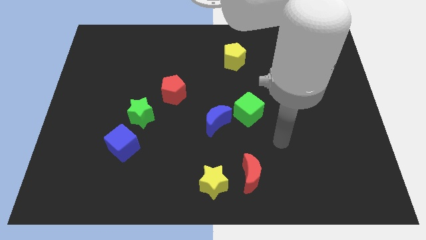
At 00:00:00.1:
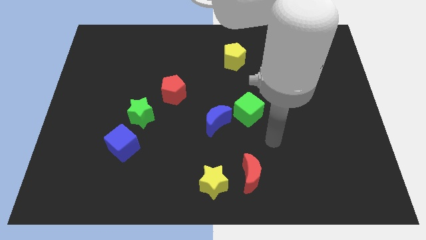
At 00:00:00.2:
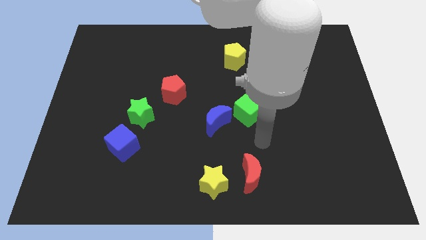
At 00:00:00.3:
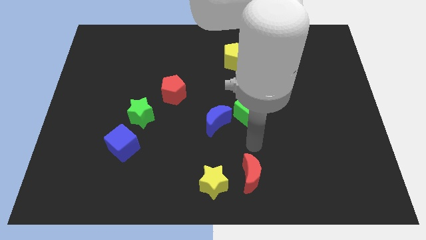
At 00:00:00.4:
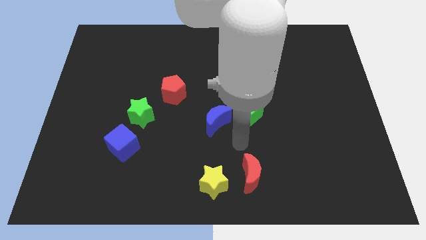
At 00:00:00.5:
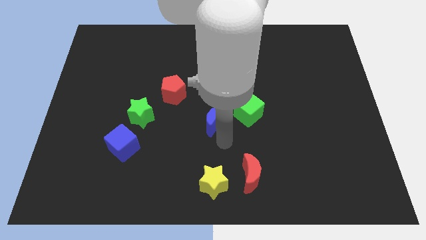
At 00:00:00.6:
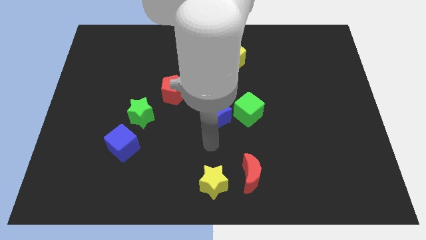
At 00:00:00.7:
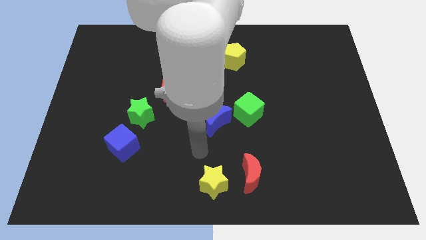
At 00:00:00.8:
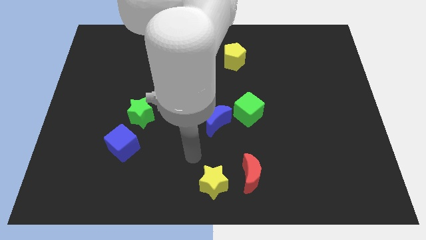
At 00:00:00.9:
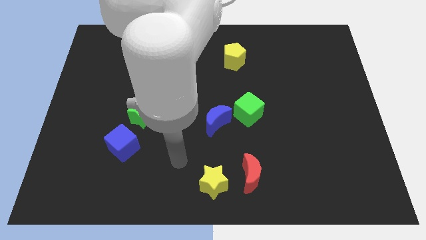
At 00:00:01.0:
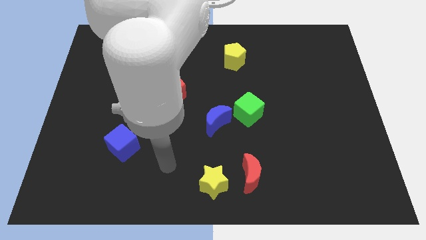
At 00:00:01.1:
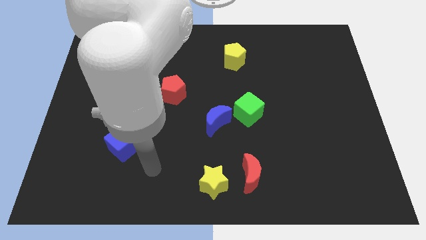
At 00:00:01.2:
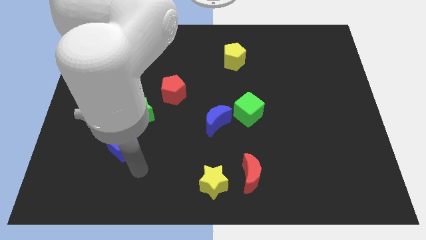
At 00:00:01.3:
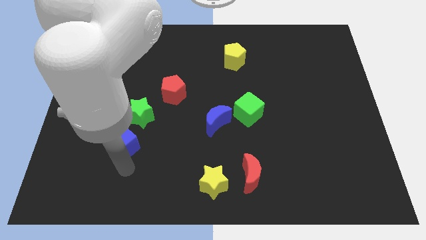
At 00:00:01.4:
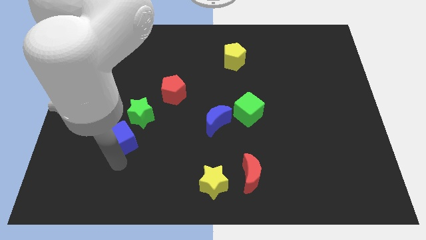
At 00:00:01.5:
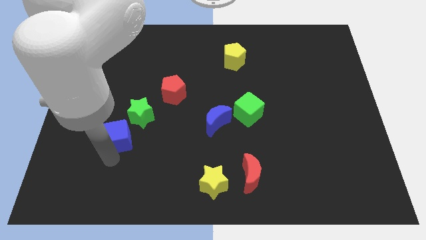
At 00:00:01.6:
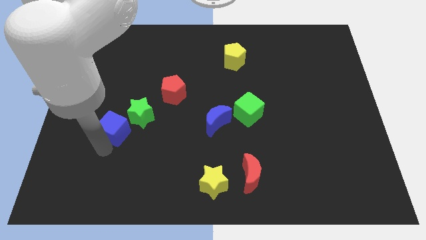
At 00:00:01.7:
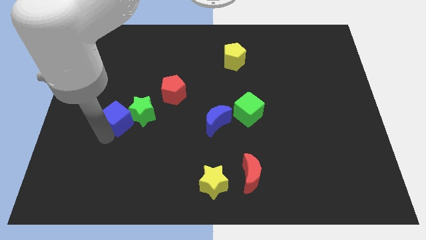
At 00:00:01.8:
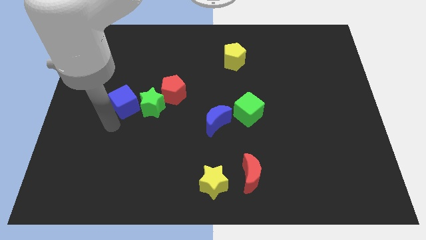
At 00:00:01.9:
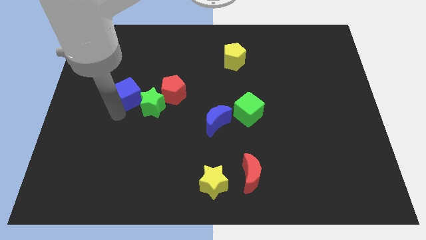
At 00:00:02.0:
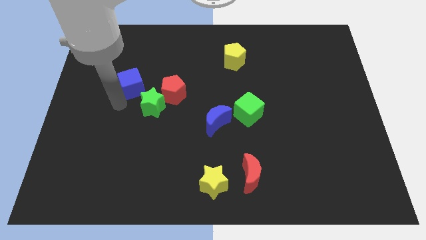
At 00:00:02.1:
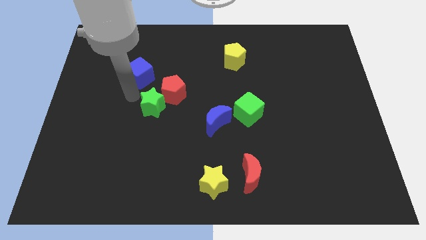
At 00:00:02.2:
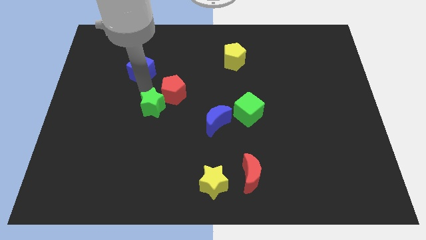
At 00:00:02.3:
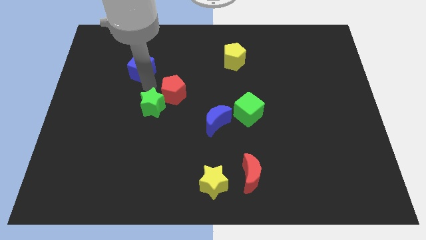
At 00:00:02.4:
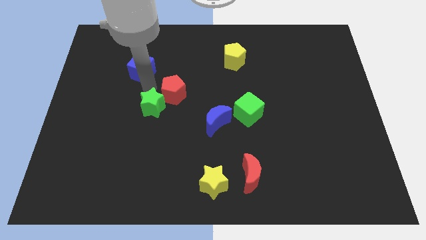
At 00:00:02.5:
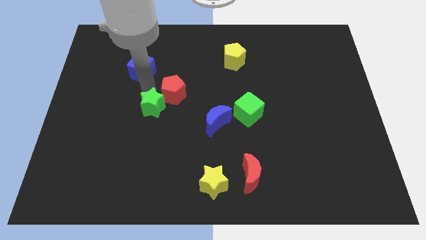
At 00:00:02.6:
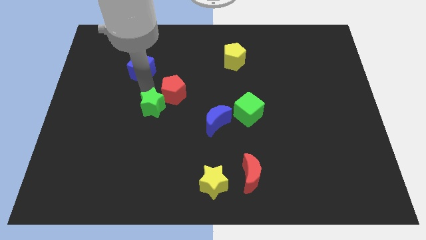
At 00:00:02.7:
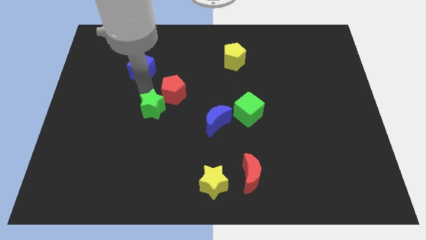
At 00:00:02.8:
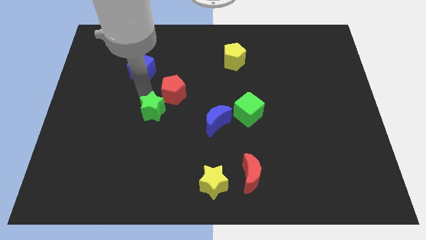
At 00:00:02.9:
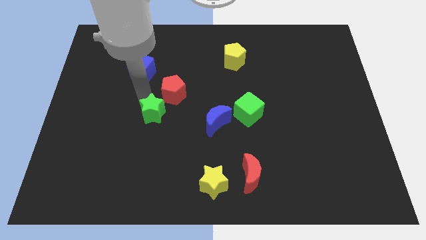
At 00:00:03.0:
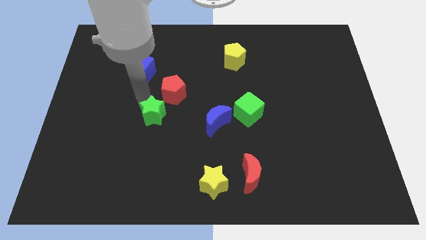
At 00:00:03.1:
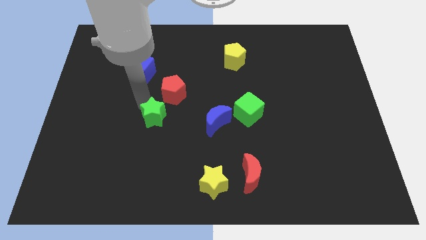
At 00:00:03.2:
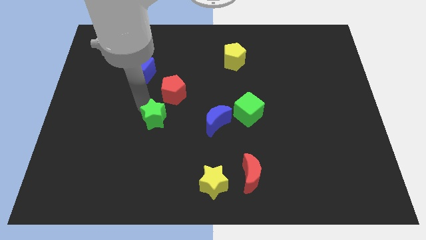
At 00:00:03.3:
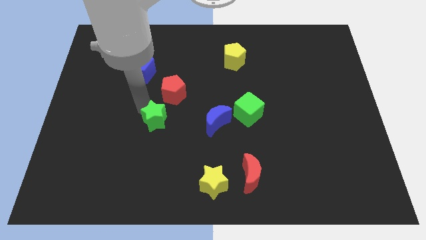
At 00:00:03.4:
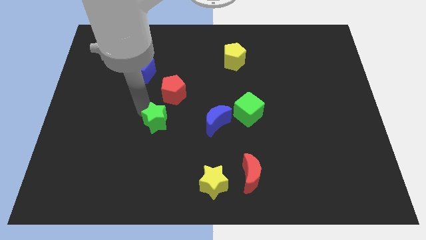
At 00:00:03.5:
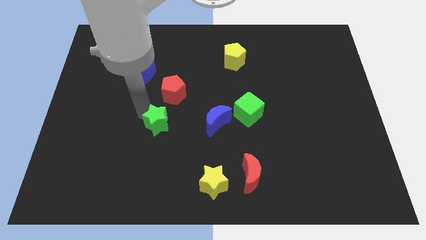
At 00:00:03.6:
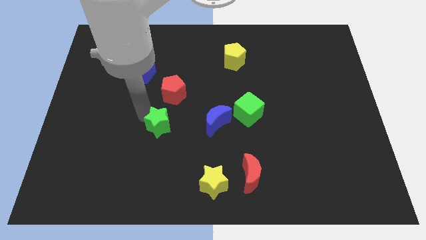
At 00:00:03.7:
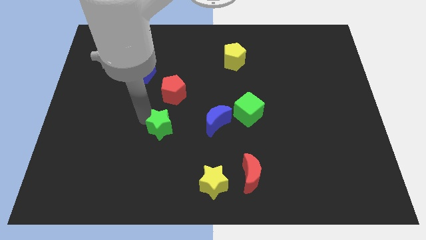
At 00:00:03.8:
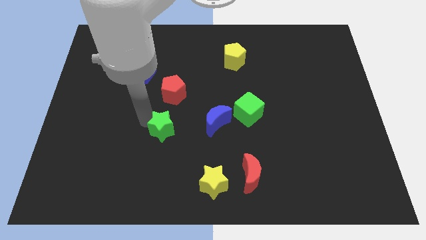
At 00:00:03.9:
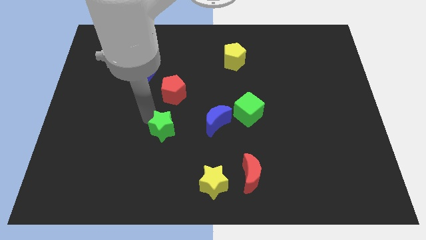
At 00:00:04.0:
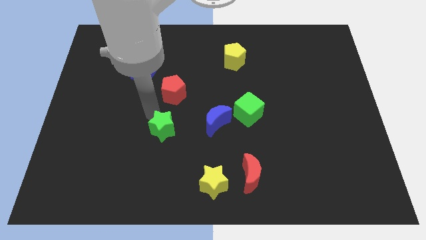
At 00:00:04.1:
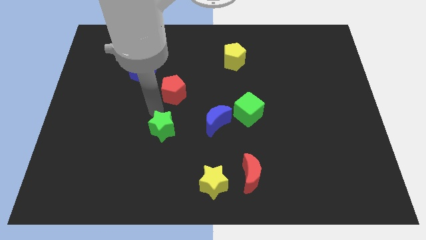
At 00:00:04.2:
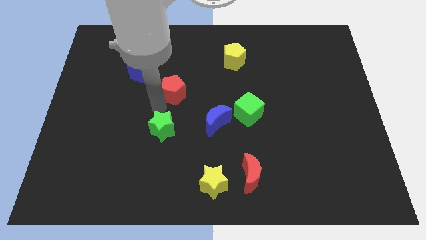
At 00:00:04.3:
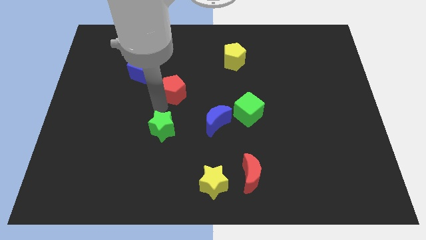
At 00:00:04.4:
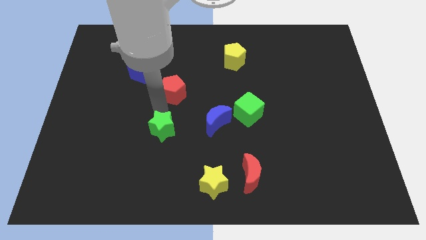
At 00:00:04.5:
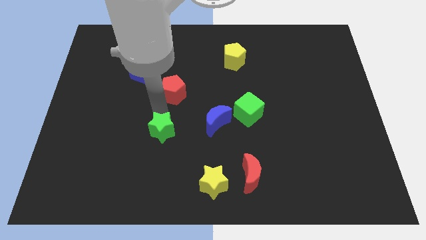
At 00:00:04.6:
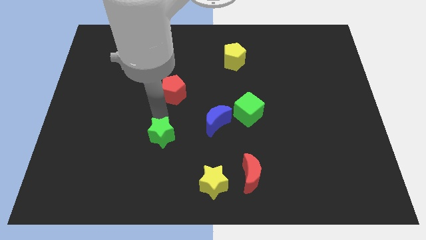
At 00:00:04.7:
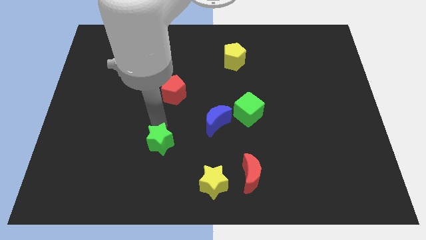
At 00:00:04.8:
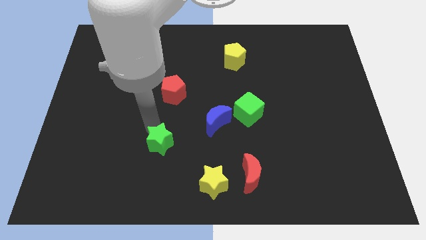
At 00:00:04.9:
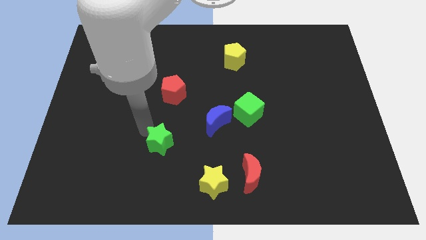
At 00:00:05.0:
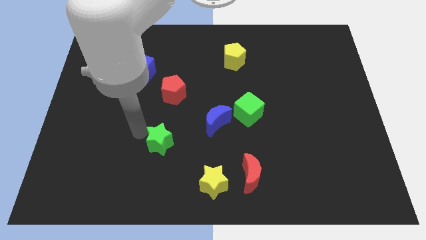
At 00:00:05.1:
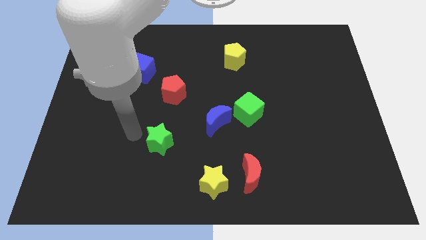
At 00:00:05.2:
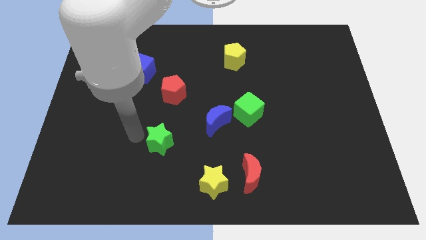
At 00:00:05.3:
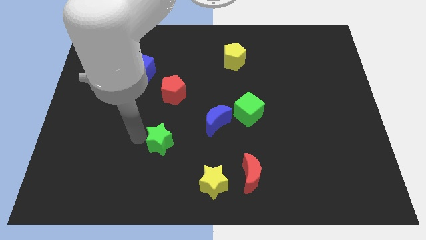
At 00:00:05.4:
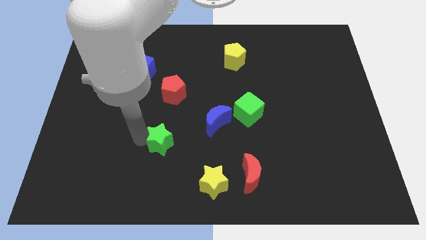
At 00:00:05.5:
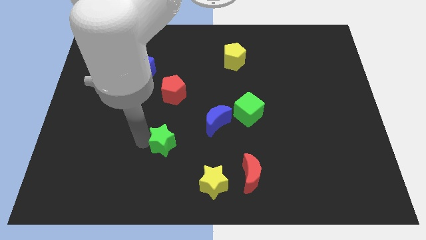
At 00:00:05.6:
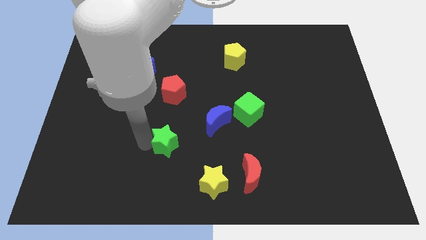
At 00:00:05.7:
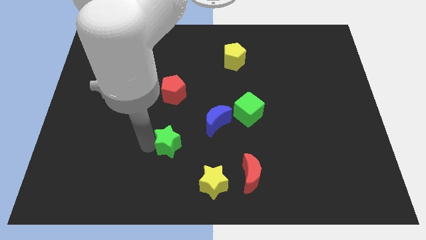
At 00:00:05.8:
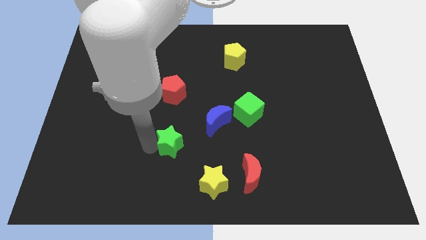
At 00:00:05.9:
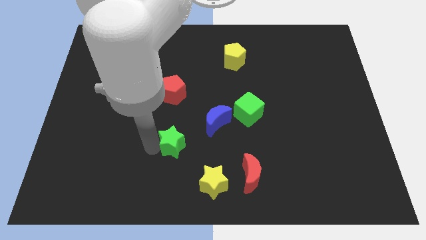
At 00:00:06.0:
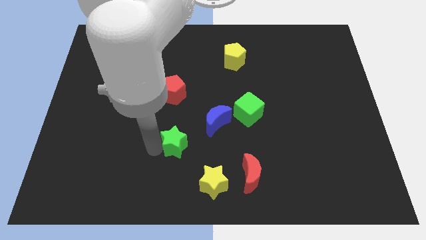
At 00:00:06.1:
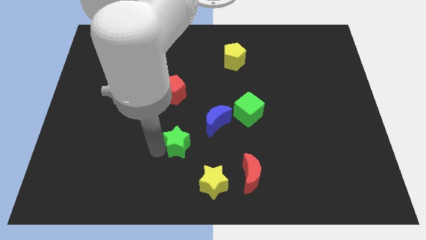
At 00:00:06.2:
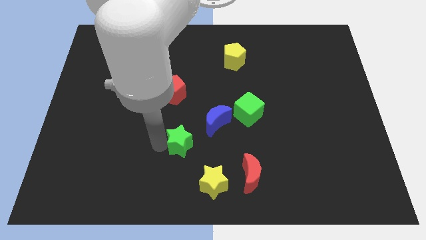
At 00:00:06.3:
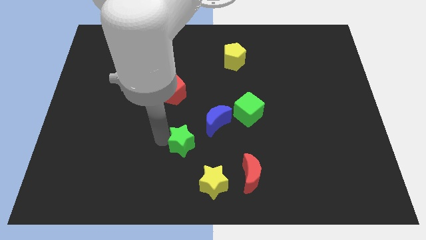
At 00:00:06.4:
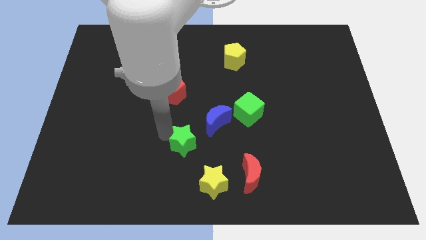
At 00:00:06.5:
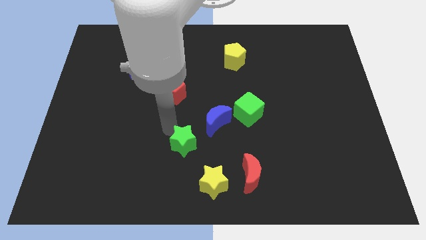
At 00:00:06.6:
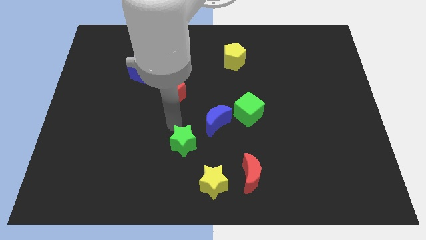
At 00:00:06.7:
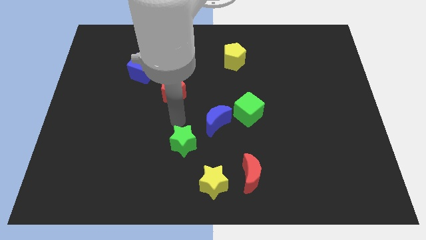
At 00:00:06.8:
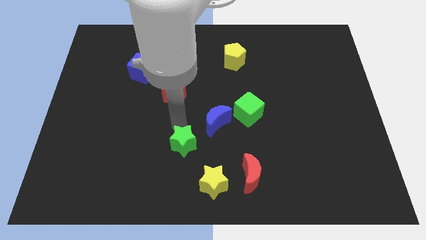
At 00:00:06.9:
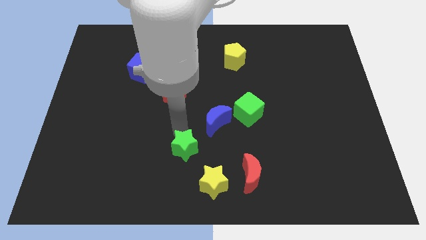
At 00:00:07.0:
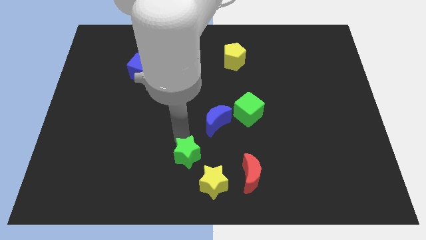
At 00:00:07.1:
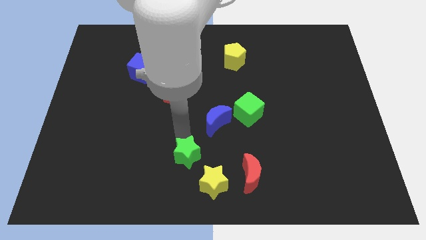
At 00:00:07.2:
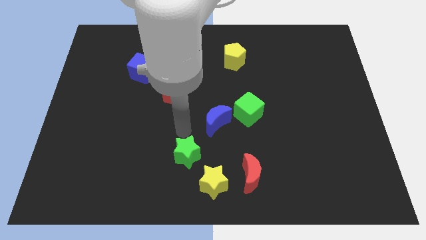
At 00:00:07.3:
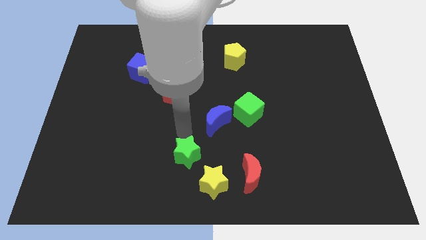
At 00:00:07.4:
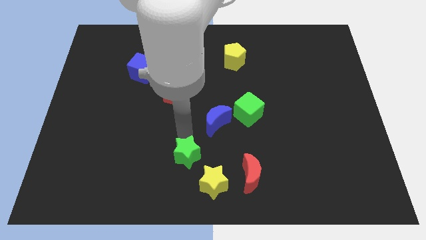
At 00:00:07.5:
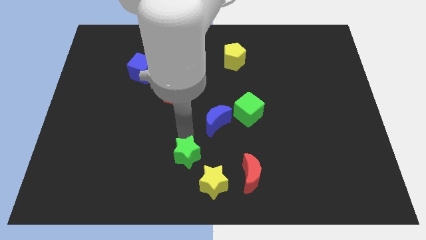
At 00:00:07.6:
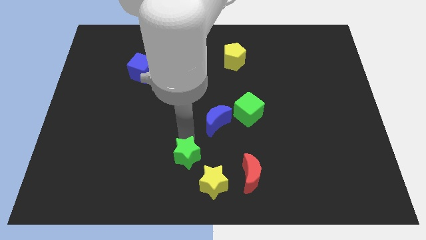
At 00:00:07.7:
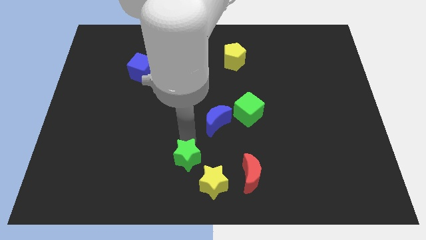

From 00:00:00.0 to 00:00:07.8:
move the green star to the bottom
